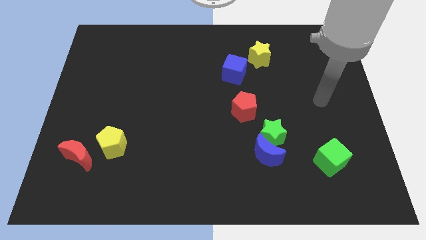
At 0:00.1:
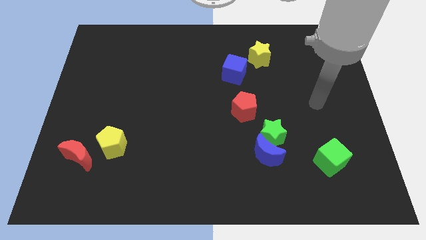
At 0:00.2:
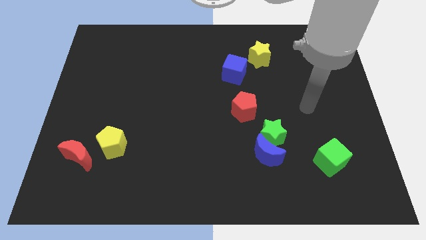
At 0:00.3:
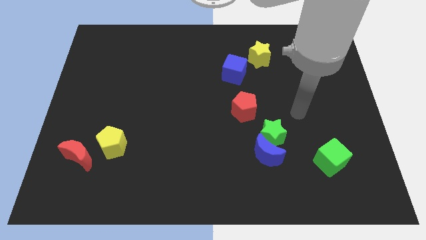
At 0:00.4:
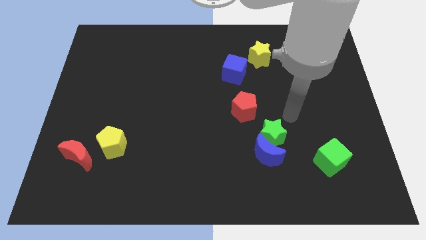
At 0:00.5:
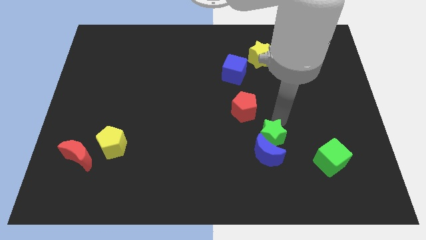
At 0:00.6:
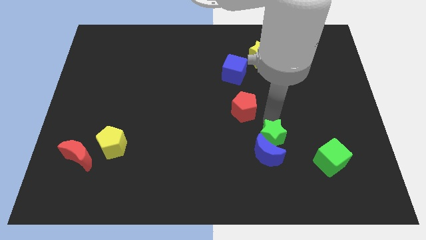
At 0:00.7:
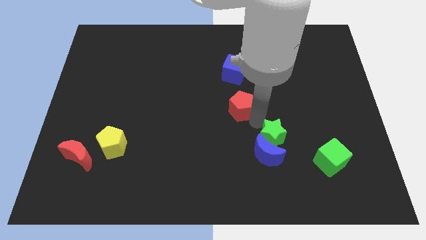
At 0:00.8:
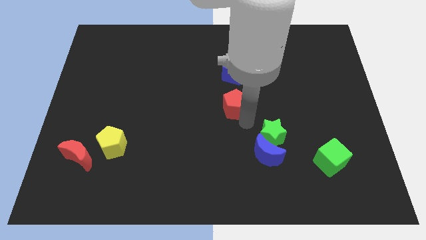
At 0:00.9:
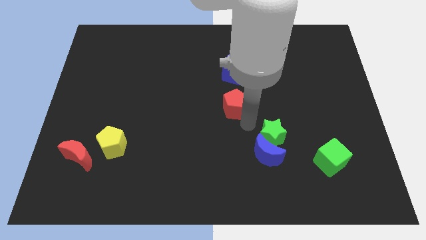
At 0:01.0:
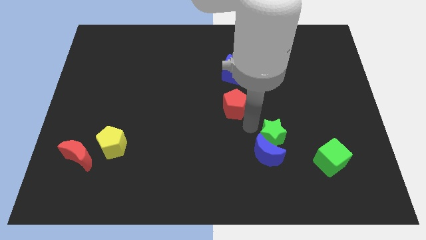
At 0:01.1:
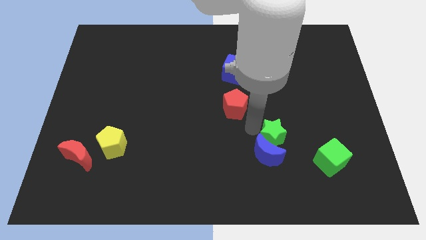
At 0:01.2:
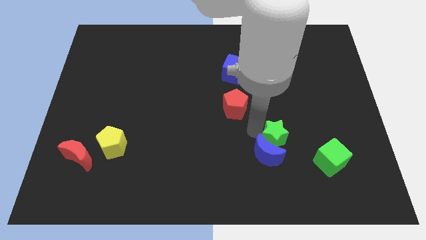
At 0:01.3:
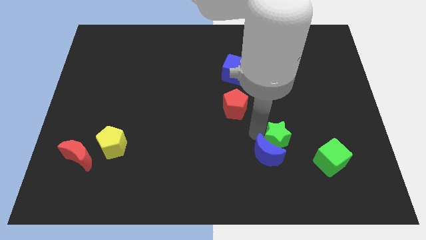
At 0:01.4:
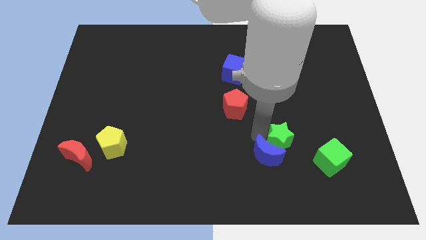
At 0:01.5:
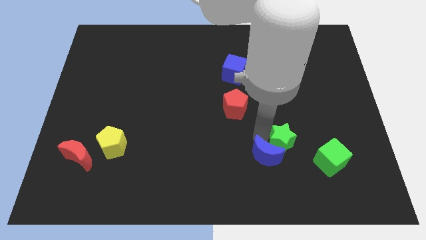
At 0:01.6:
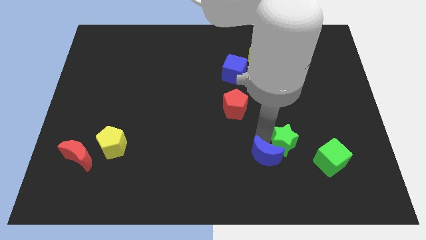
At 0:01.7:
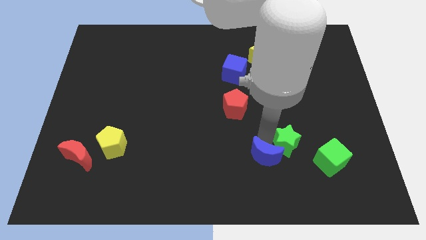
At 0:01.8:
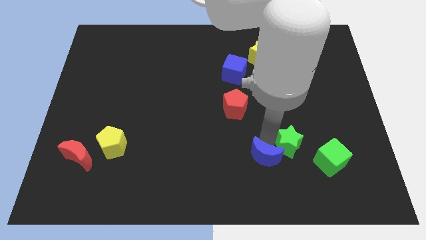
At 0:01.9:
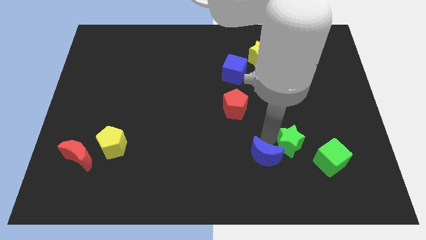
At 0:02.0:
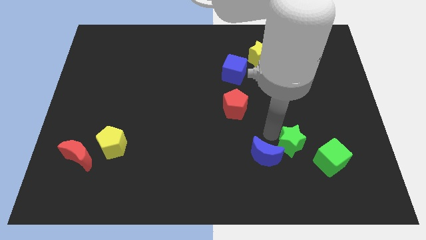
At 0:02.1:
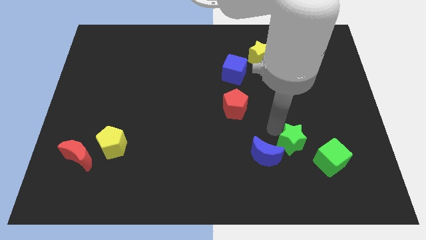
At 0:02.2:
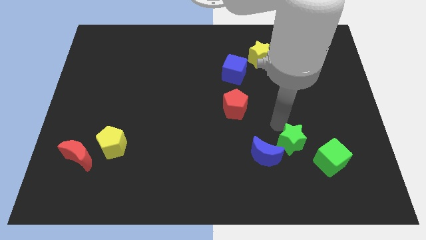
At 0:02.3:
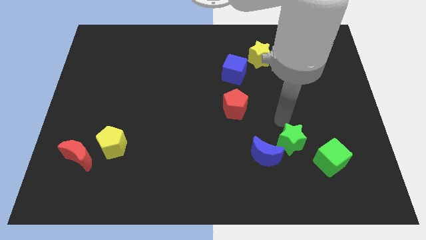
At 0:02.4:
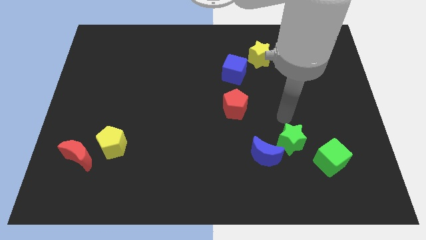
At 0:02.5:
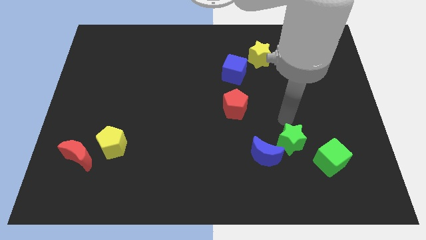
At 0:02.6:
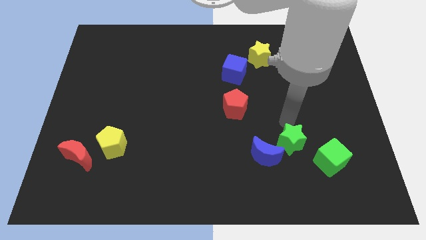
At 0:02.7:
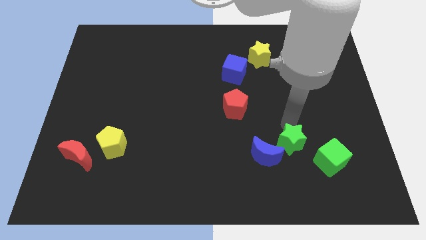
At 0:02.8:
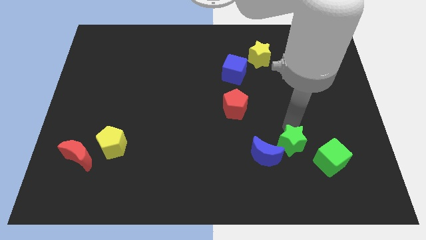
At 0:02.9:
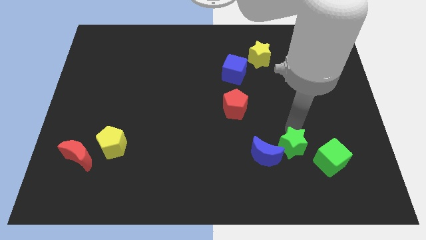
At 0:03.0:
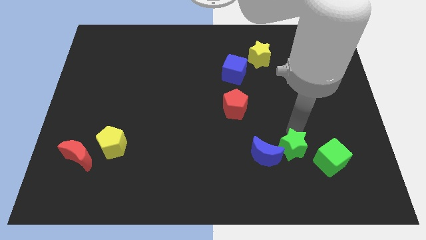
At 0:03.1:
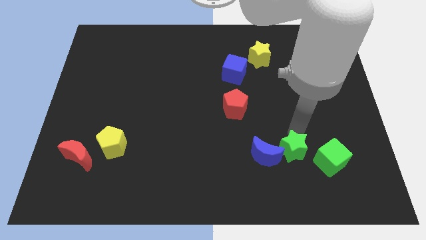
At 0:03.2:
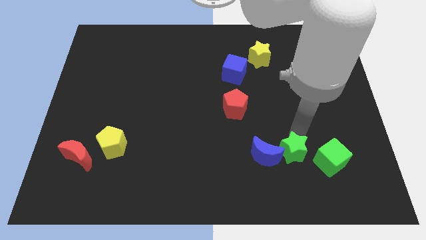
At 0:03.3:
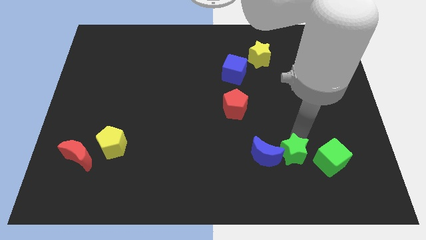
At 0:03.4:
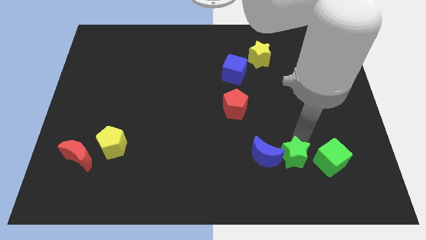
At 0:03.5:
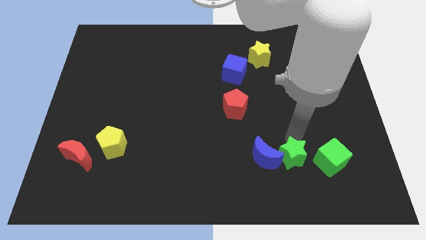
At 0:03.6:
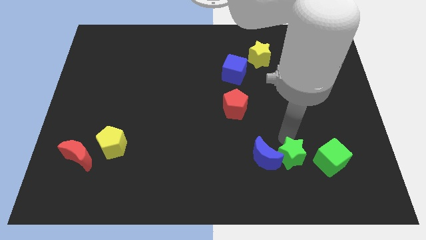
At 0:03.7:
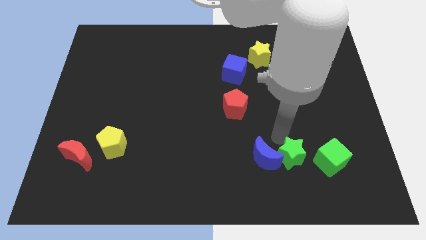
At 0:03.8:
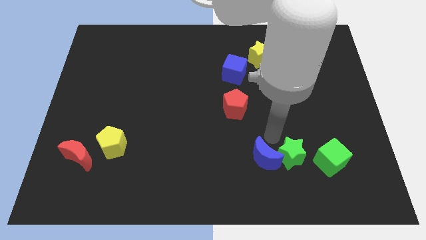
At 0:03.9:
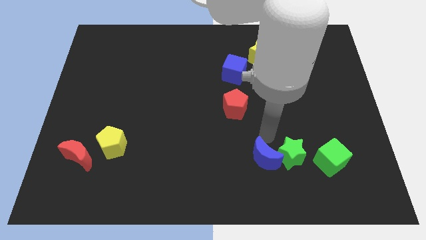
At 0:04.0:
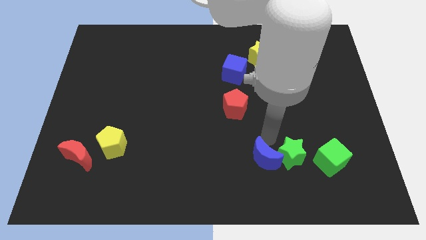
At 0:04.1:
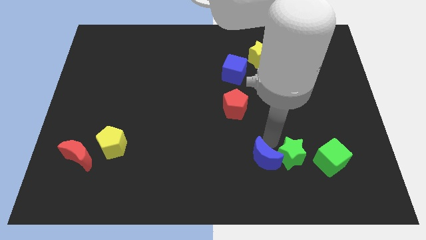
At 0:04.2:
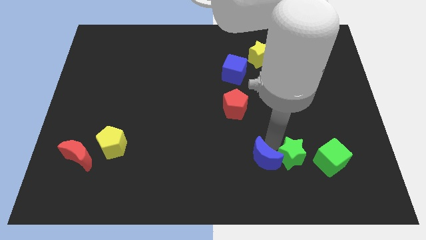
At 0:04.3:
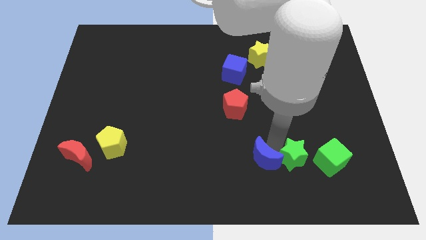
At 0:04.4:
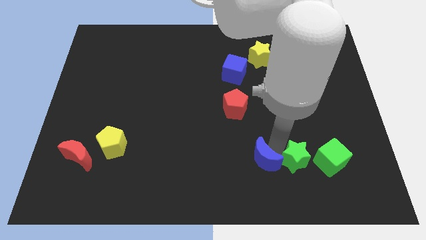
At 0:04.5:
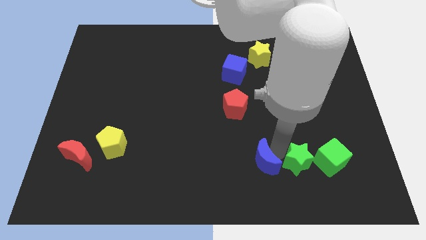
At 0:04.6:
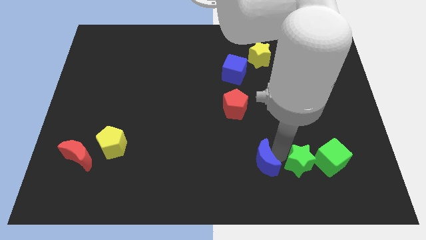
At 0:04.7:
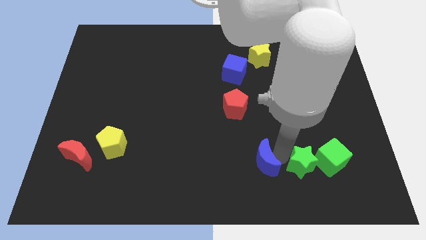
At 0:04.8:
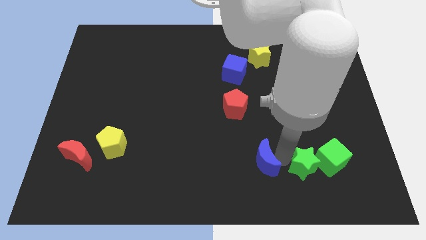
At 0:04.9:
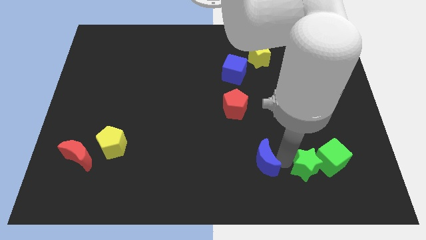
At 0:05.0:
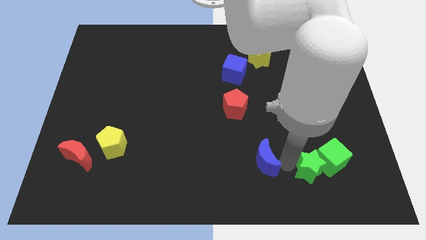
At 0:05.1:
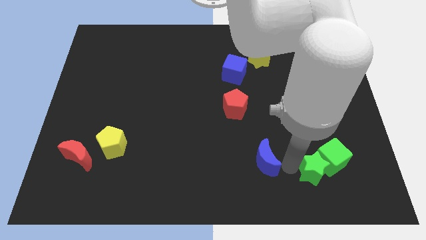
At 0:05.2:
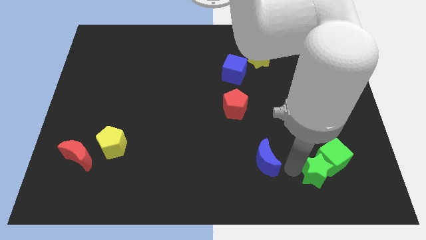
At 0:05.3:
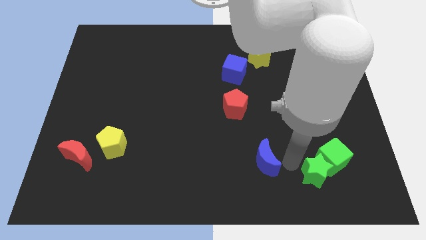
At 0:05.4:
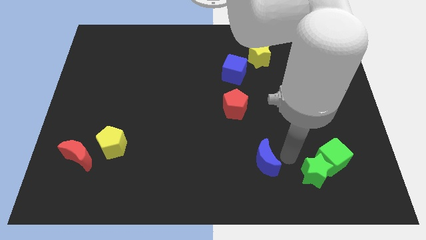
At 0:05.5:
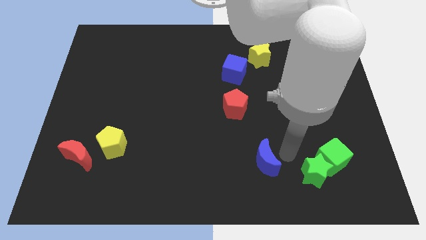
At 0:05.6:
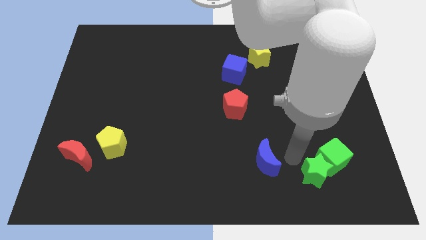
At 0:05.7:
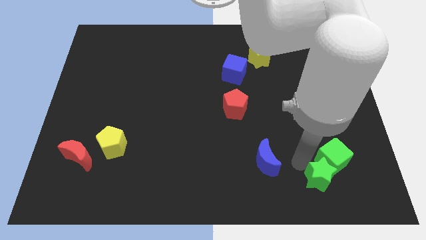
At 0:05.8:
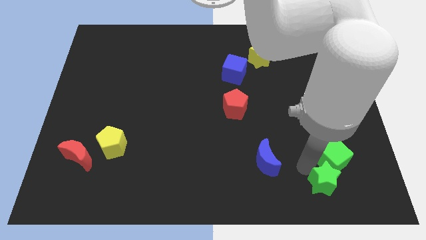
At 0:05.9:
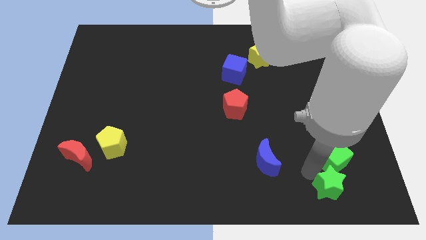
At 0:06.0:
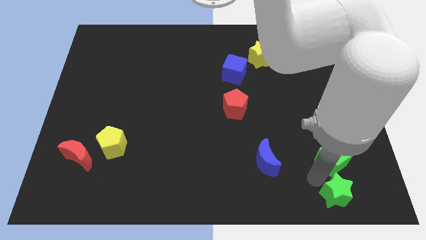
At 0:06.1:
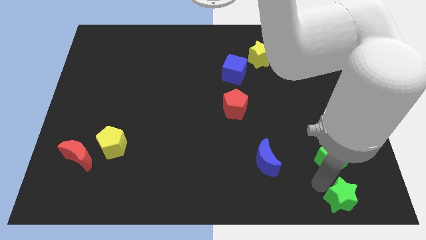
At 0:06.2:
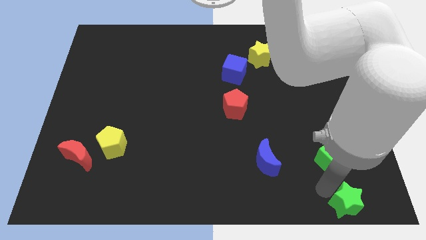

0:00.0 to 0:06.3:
move the green star to the lower right corner
